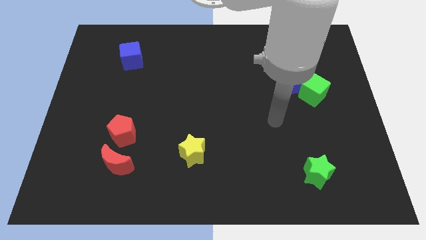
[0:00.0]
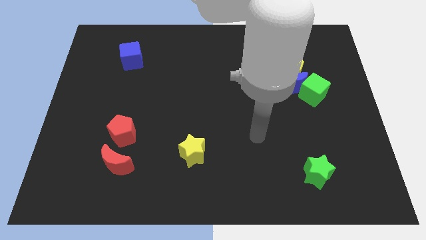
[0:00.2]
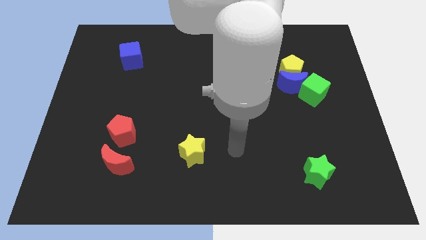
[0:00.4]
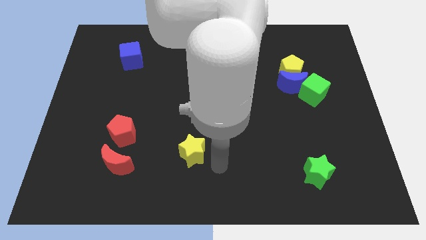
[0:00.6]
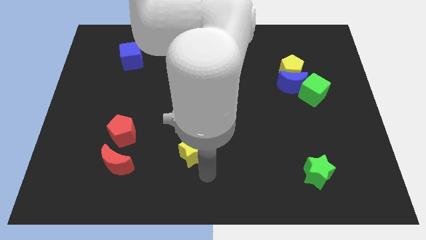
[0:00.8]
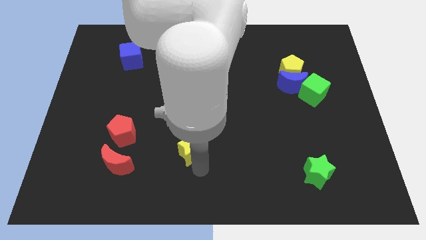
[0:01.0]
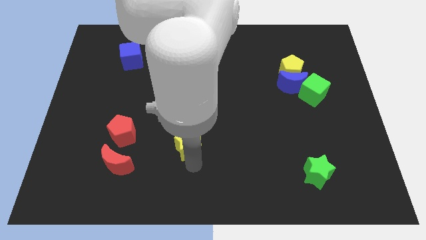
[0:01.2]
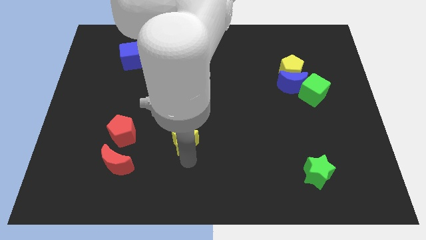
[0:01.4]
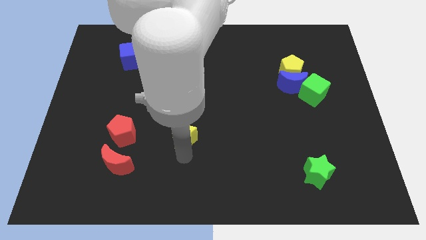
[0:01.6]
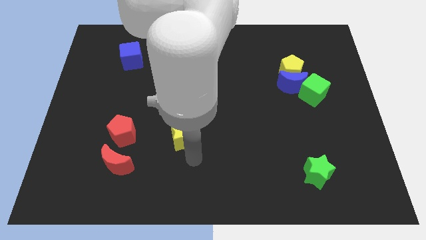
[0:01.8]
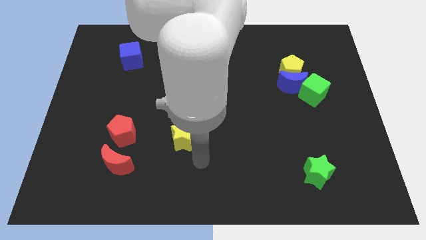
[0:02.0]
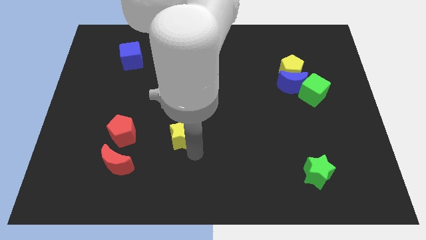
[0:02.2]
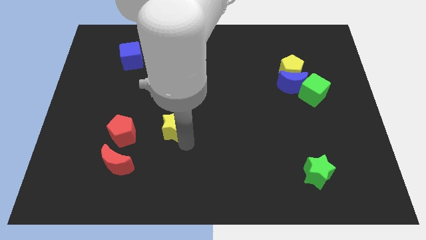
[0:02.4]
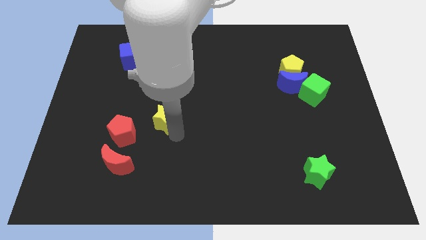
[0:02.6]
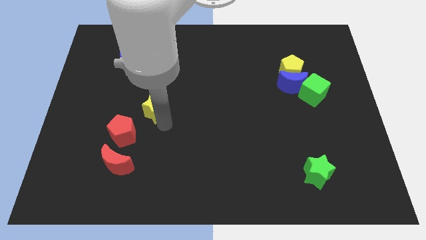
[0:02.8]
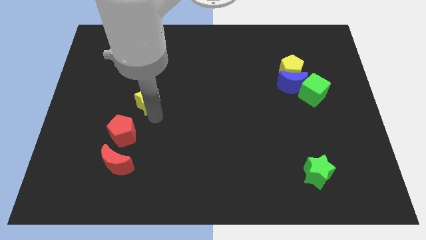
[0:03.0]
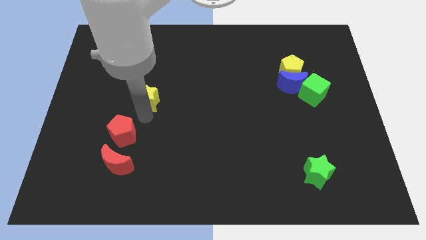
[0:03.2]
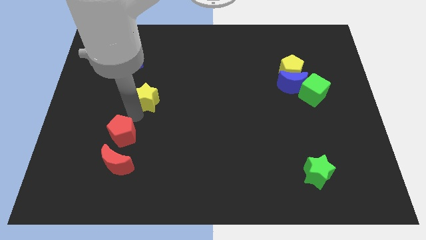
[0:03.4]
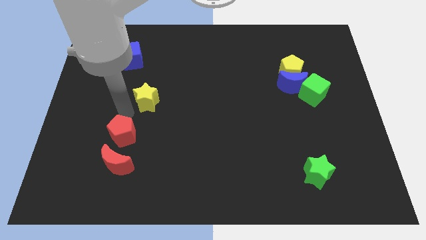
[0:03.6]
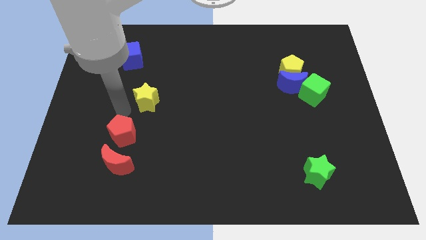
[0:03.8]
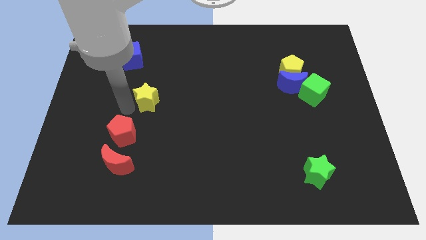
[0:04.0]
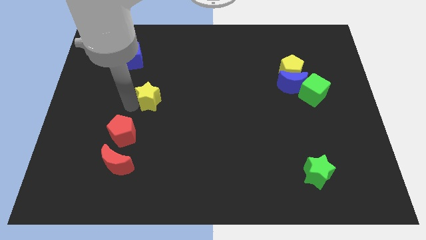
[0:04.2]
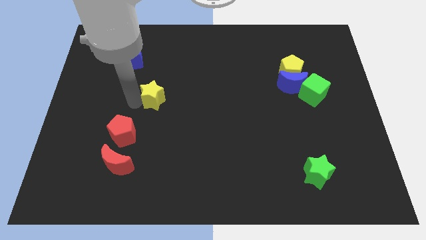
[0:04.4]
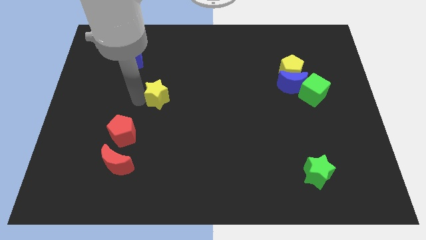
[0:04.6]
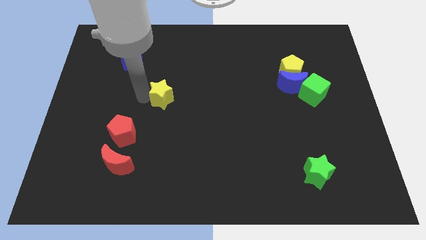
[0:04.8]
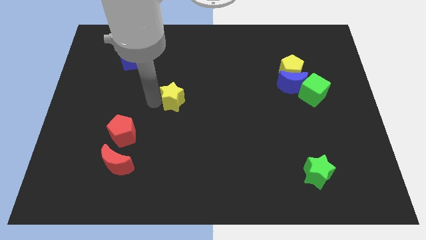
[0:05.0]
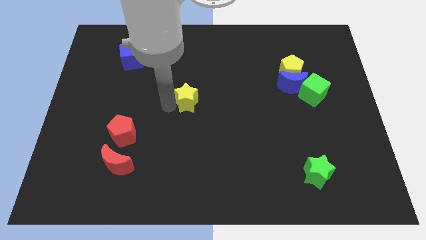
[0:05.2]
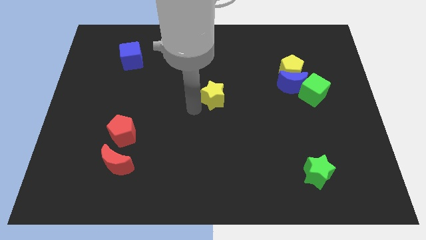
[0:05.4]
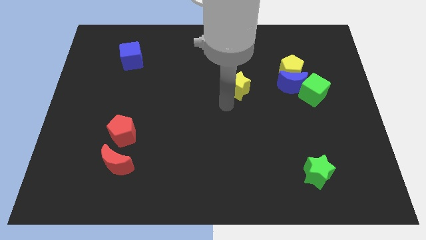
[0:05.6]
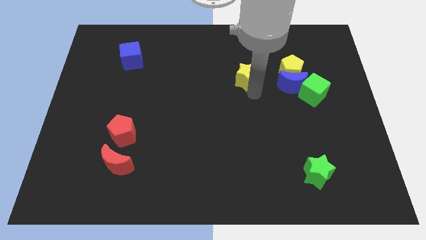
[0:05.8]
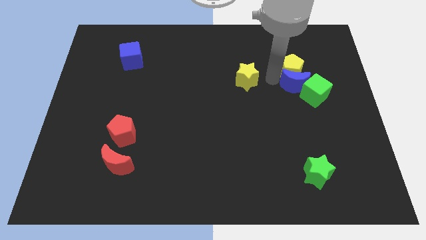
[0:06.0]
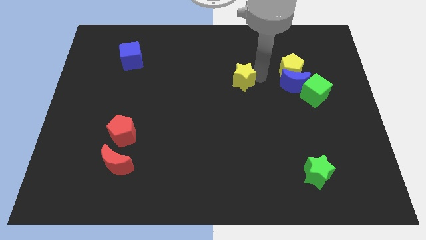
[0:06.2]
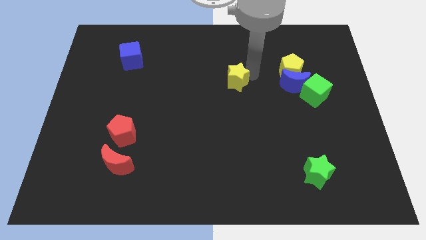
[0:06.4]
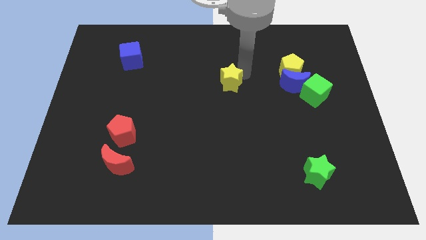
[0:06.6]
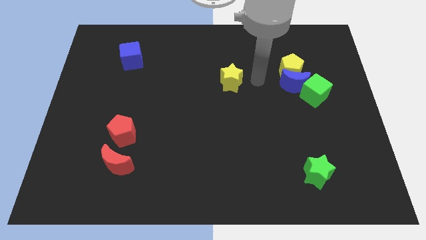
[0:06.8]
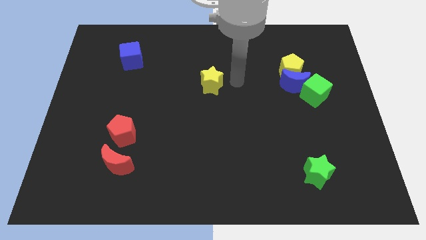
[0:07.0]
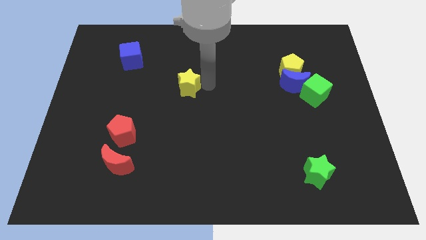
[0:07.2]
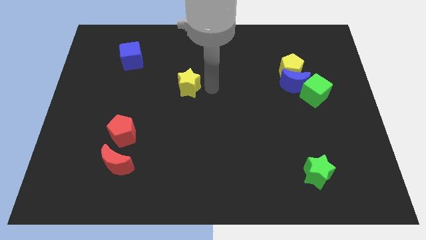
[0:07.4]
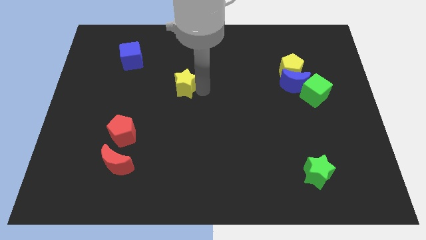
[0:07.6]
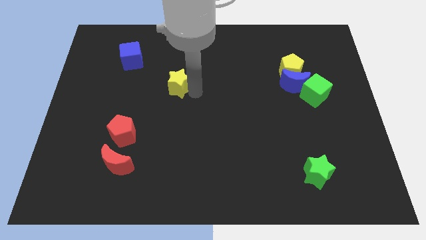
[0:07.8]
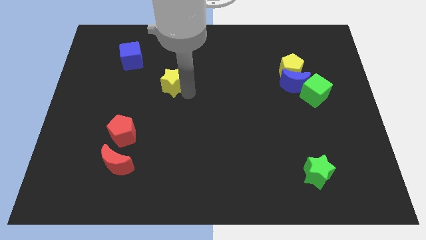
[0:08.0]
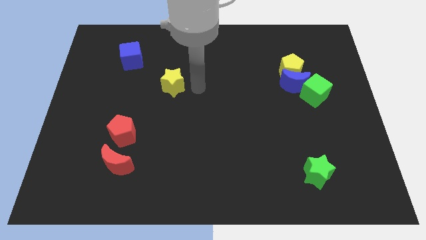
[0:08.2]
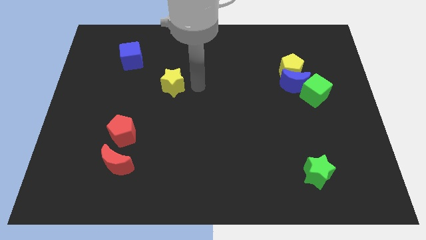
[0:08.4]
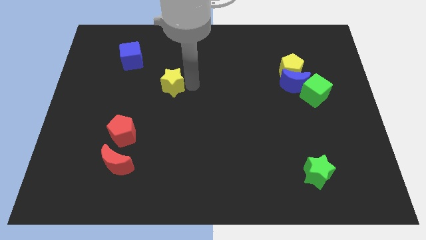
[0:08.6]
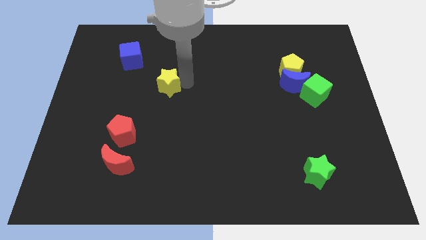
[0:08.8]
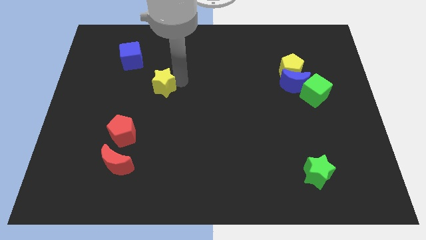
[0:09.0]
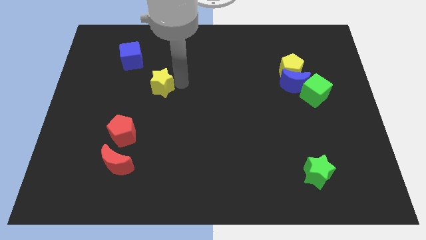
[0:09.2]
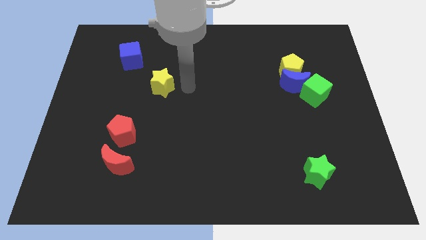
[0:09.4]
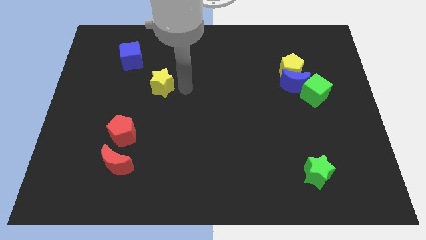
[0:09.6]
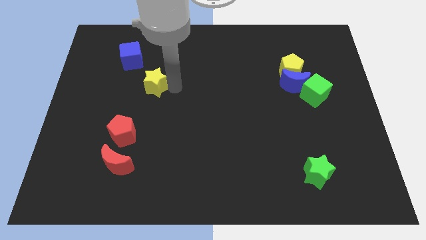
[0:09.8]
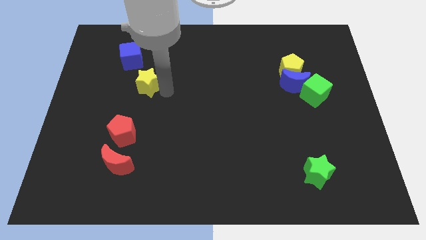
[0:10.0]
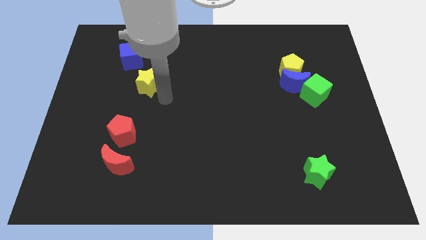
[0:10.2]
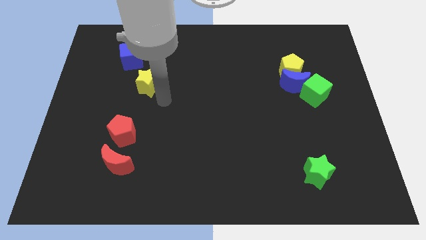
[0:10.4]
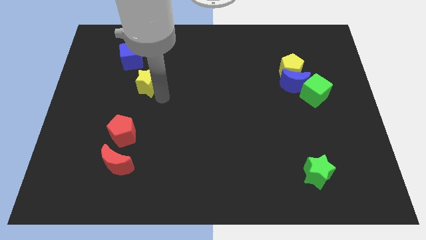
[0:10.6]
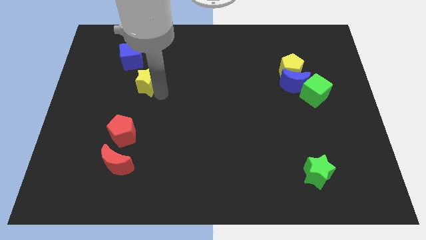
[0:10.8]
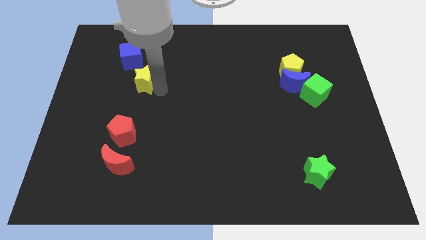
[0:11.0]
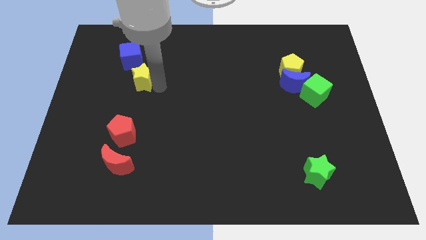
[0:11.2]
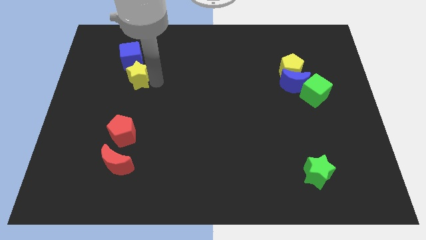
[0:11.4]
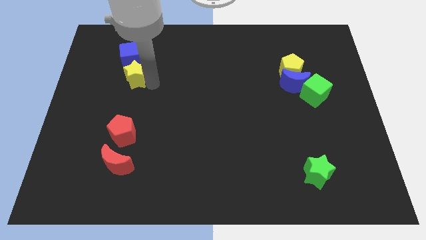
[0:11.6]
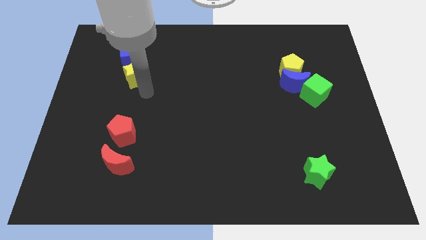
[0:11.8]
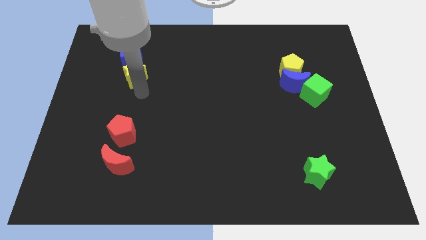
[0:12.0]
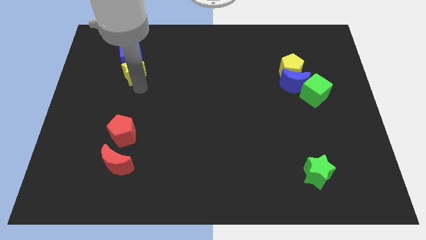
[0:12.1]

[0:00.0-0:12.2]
push the yellow star to the blue cube

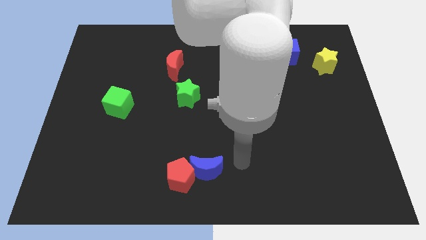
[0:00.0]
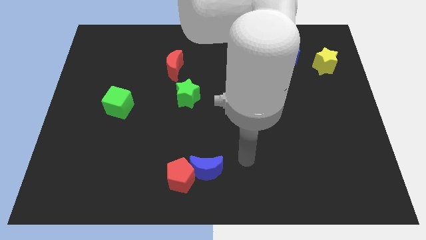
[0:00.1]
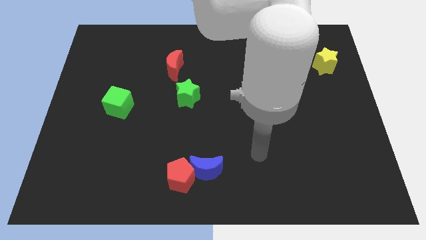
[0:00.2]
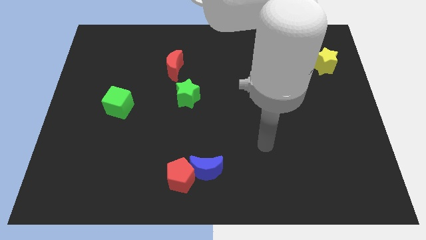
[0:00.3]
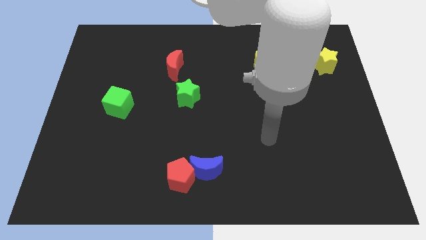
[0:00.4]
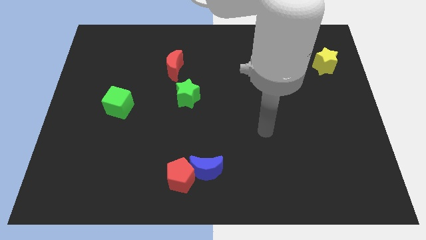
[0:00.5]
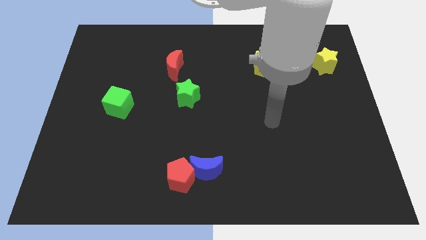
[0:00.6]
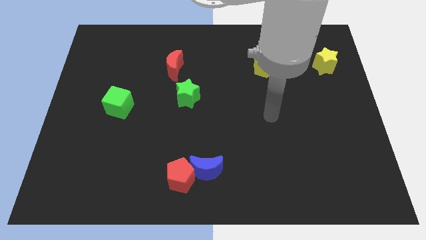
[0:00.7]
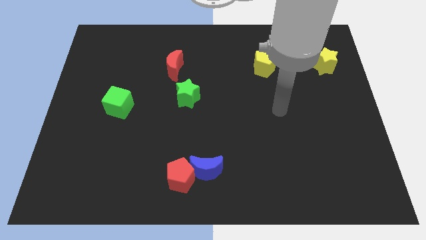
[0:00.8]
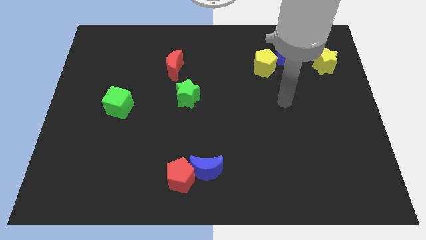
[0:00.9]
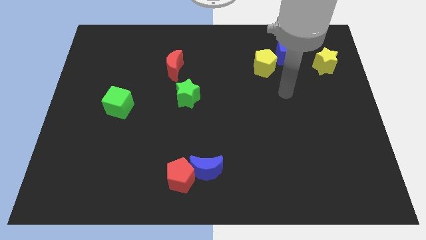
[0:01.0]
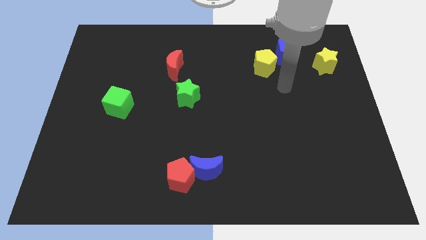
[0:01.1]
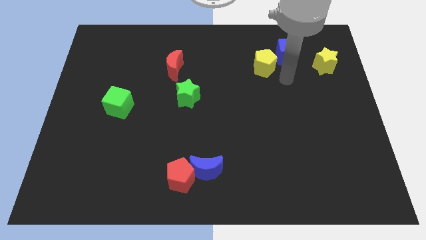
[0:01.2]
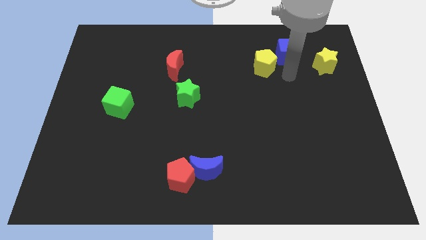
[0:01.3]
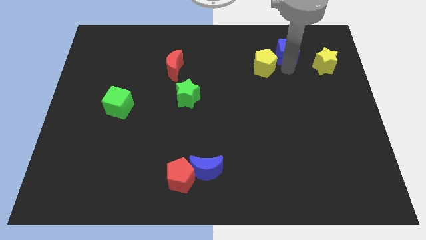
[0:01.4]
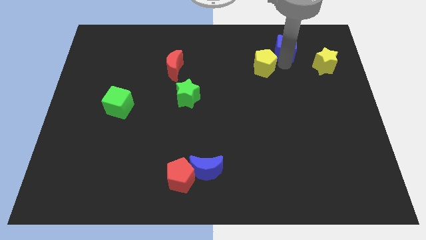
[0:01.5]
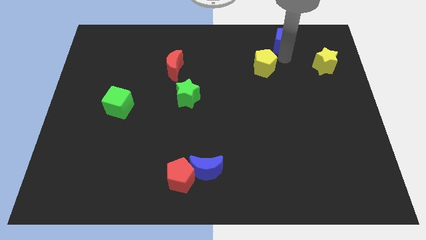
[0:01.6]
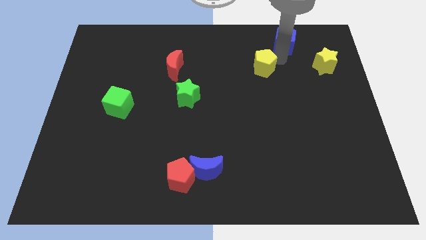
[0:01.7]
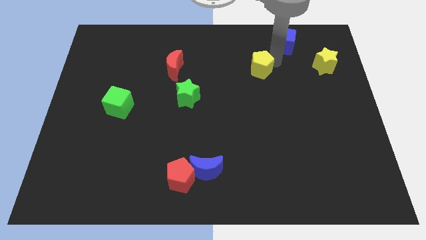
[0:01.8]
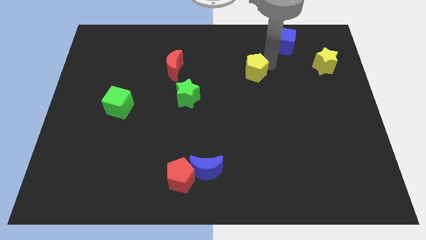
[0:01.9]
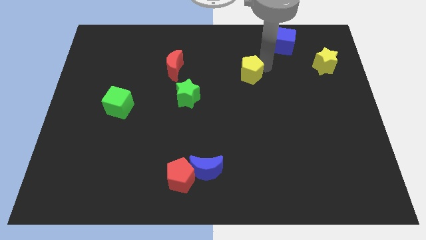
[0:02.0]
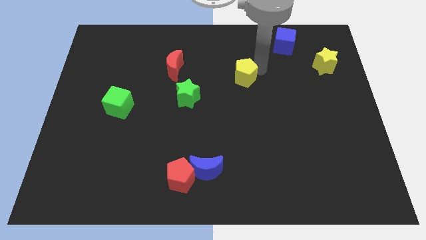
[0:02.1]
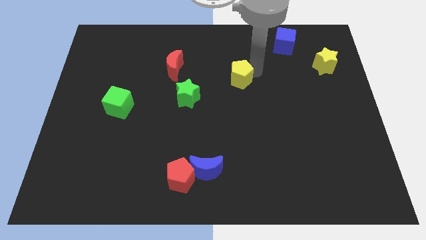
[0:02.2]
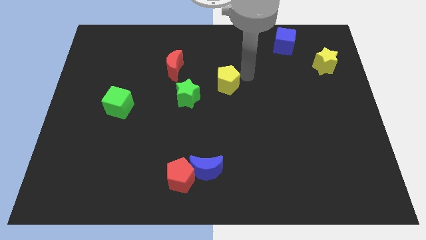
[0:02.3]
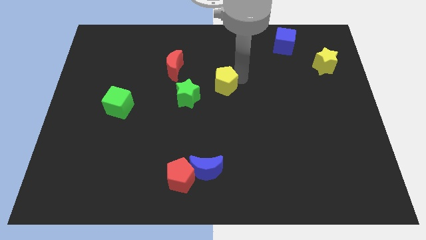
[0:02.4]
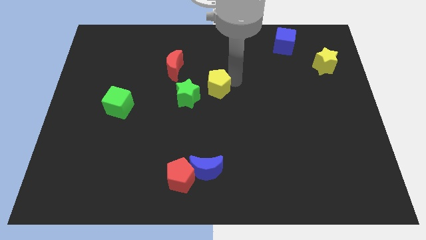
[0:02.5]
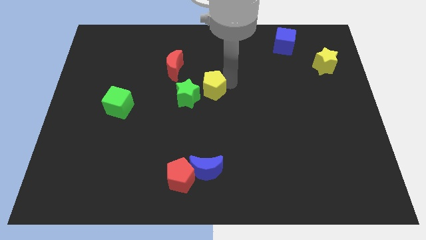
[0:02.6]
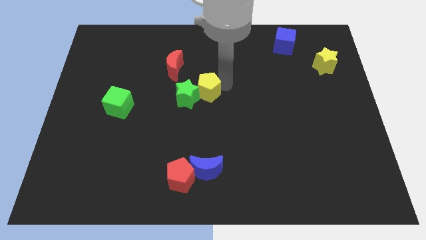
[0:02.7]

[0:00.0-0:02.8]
push the yellow pentagon towards the green star
